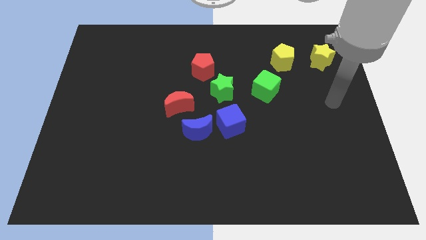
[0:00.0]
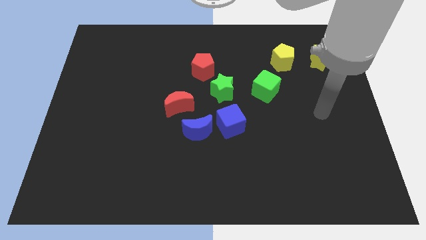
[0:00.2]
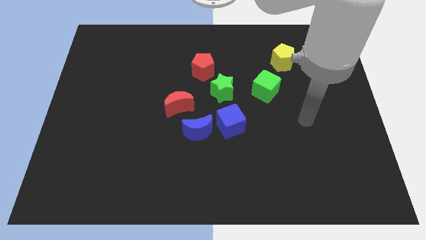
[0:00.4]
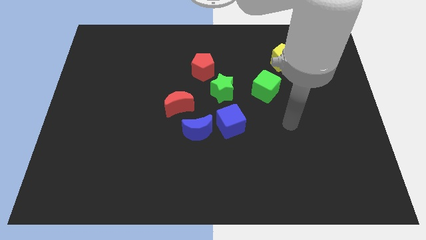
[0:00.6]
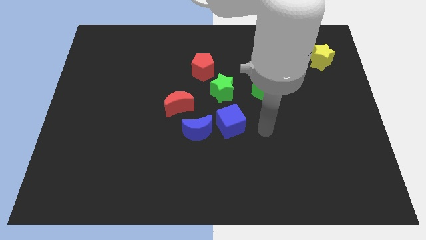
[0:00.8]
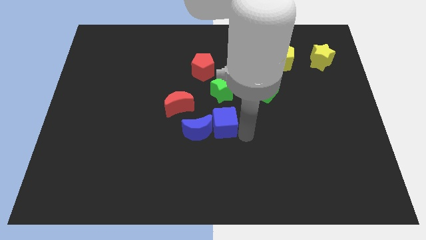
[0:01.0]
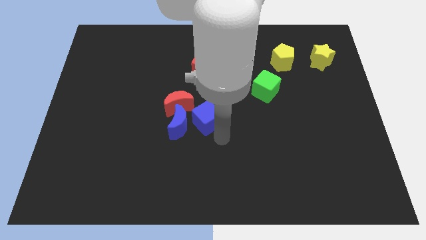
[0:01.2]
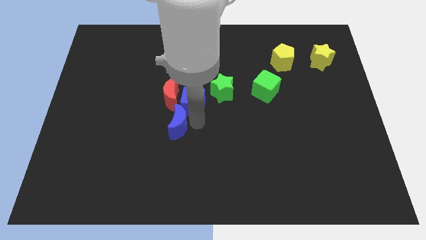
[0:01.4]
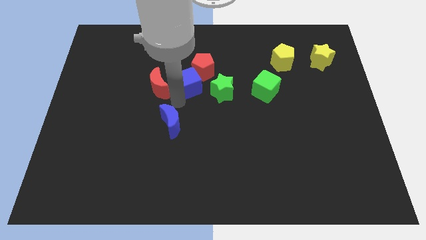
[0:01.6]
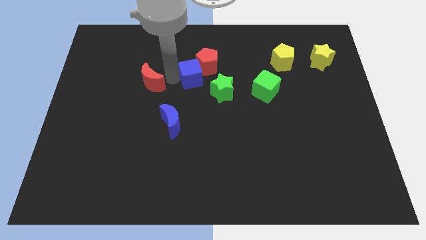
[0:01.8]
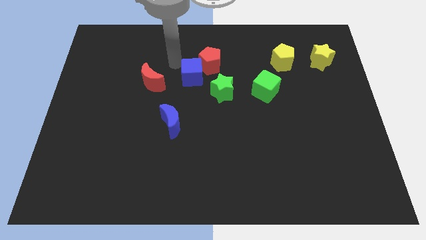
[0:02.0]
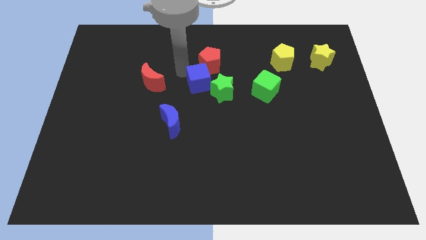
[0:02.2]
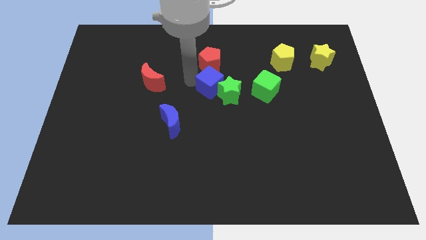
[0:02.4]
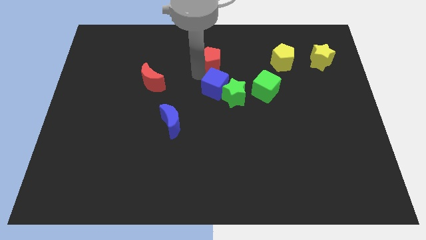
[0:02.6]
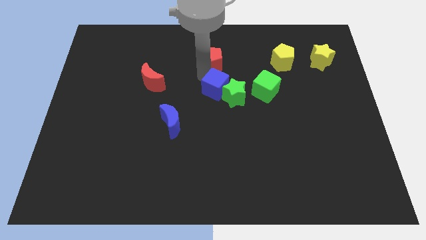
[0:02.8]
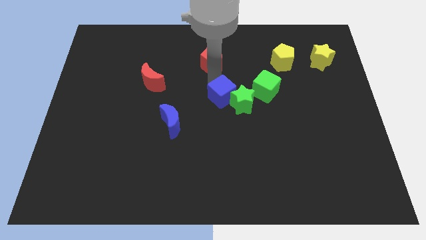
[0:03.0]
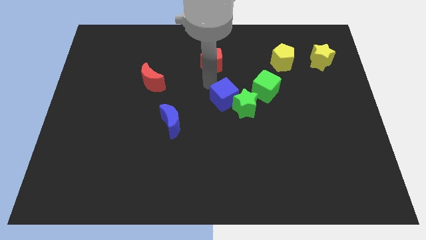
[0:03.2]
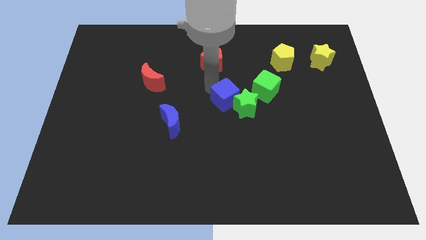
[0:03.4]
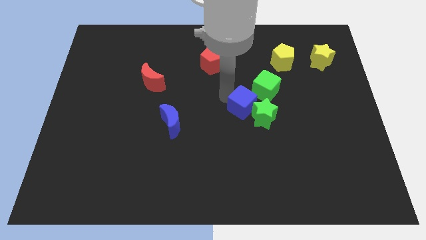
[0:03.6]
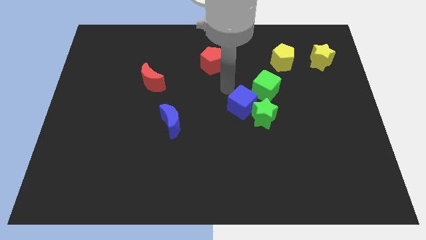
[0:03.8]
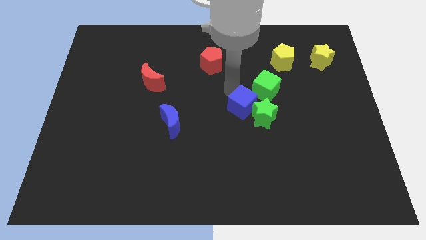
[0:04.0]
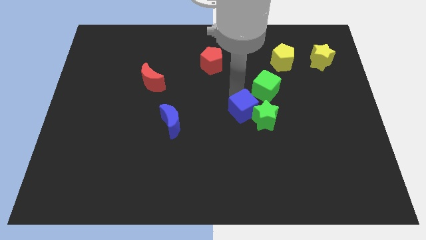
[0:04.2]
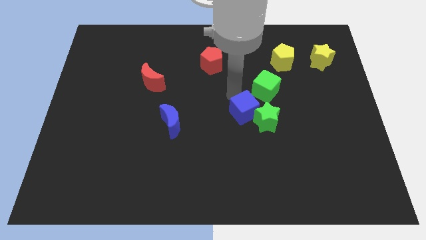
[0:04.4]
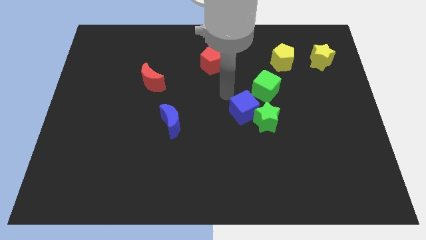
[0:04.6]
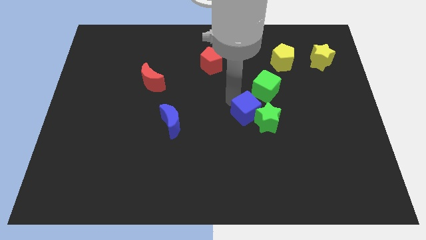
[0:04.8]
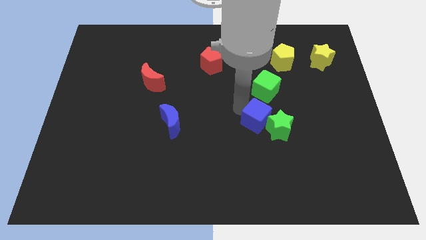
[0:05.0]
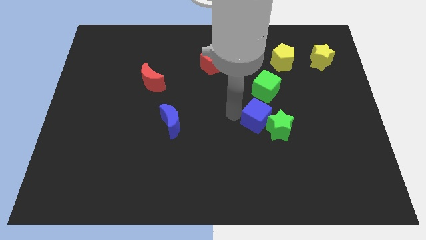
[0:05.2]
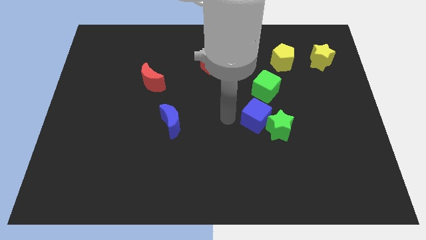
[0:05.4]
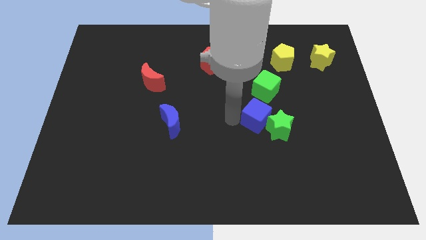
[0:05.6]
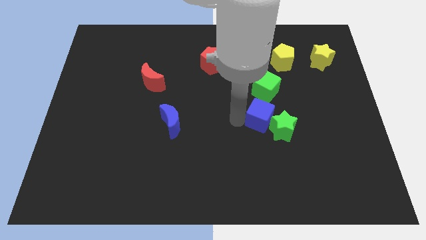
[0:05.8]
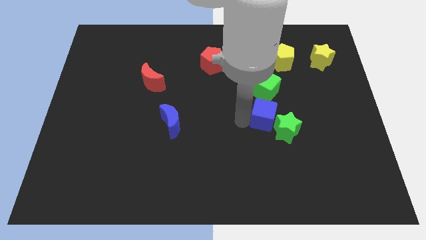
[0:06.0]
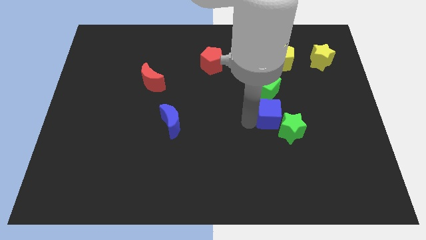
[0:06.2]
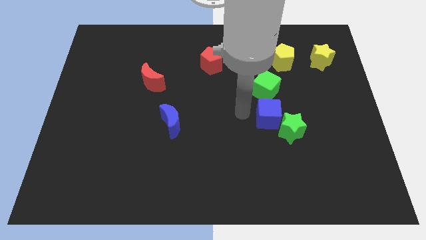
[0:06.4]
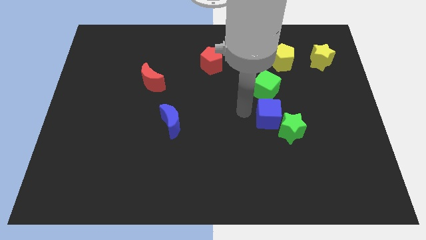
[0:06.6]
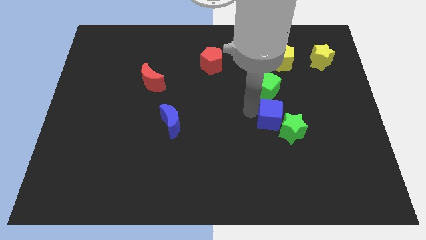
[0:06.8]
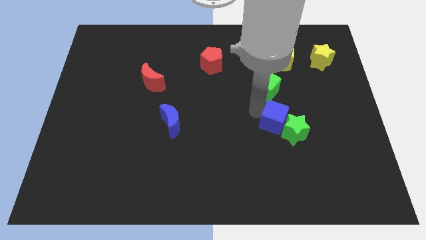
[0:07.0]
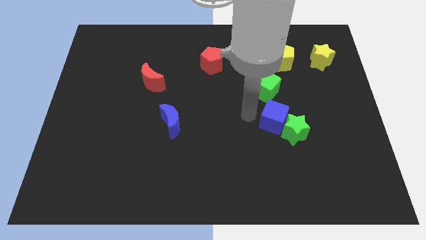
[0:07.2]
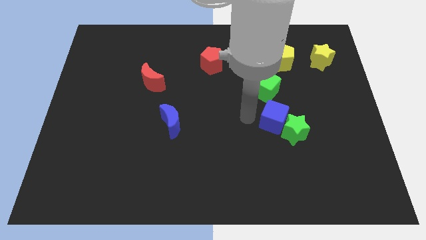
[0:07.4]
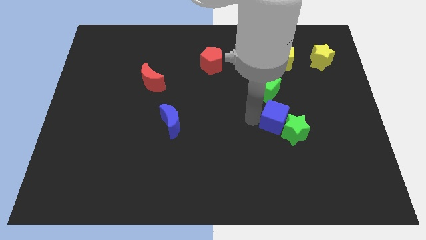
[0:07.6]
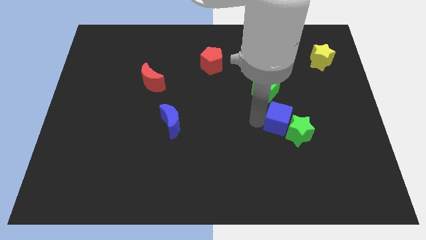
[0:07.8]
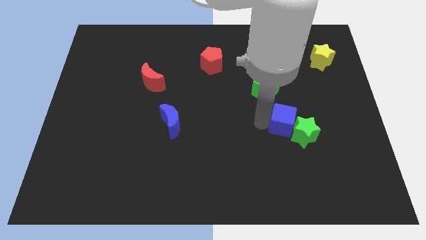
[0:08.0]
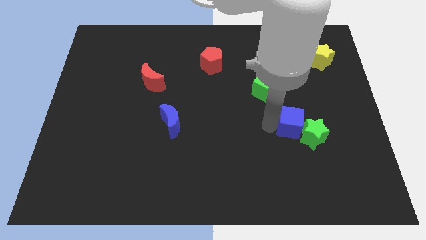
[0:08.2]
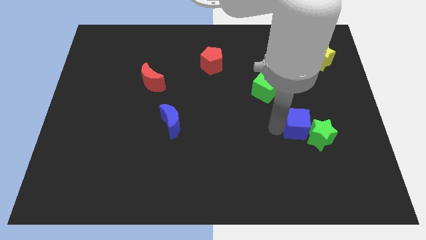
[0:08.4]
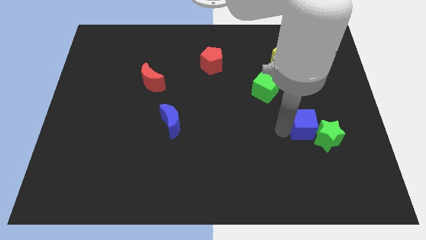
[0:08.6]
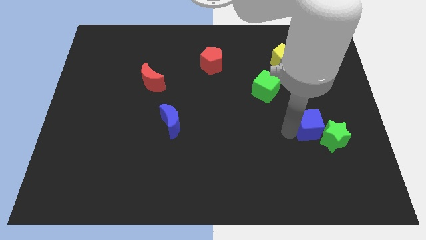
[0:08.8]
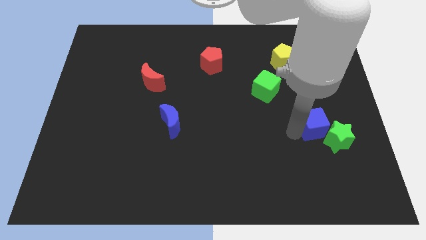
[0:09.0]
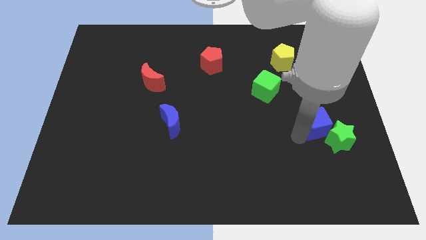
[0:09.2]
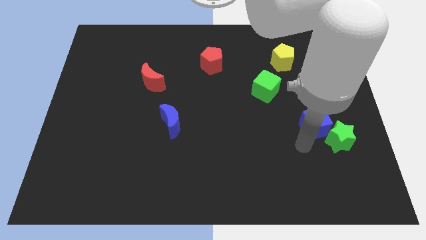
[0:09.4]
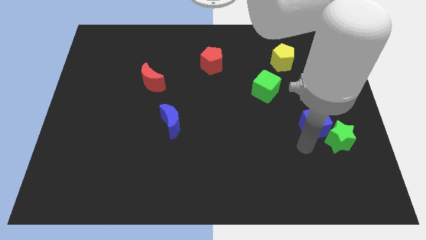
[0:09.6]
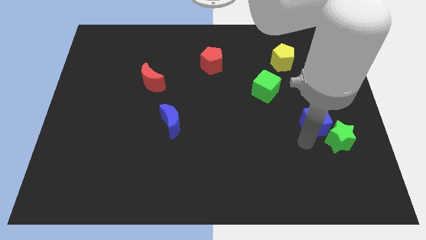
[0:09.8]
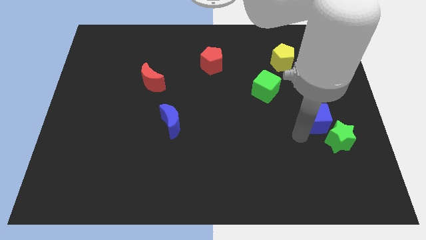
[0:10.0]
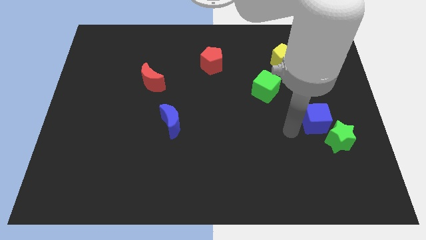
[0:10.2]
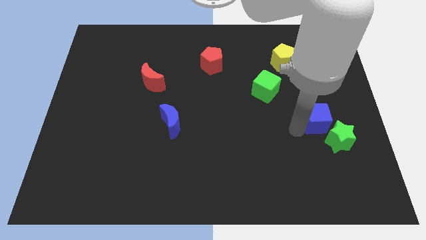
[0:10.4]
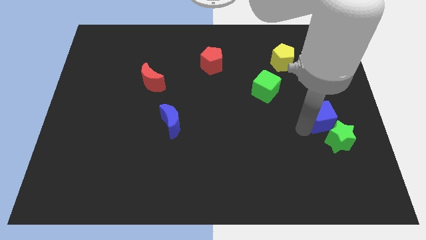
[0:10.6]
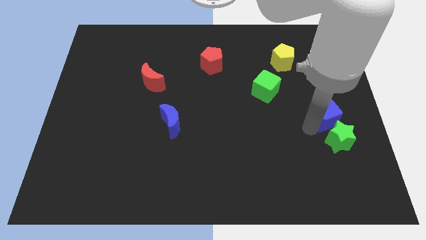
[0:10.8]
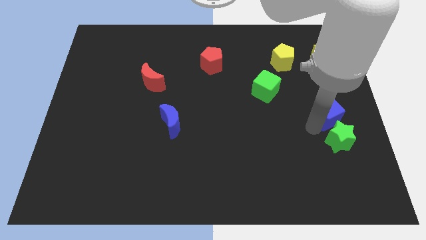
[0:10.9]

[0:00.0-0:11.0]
push the blue cube to the center right
